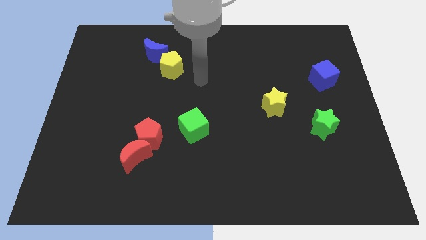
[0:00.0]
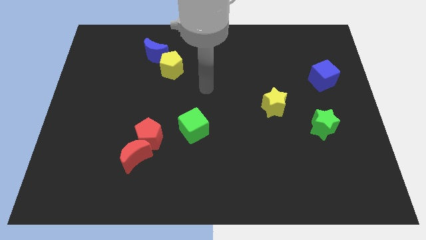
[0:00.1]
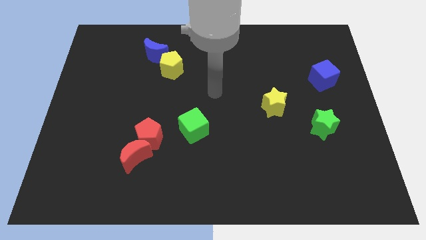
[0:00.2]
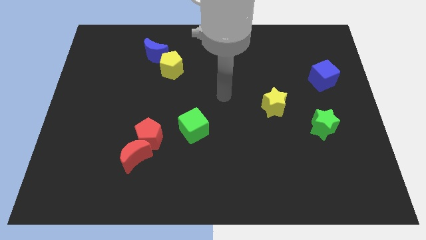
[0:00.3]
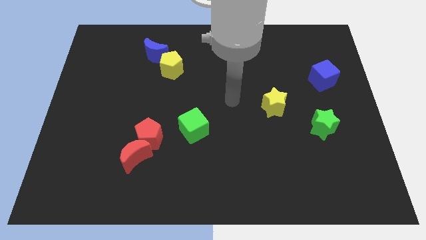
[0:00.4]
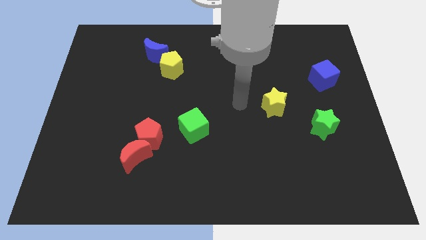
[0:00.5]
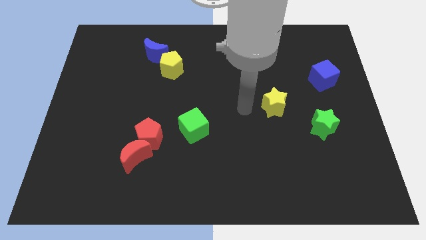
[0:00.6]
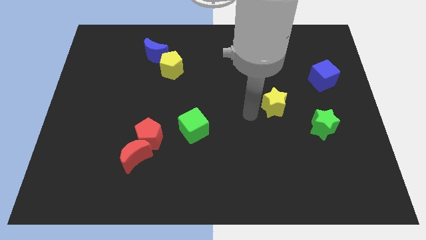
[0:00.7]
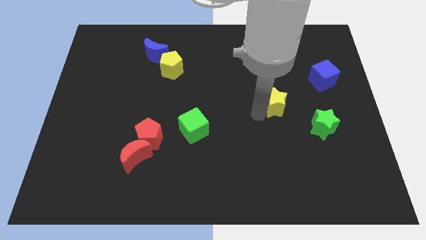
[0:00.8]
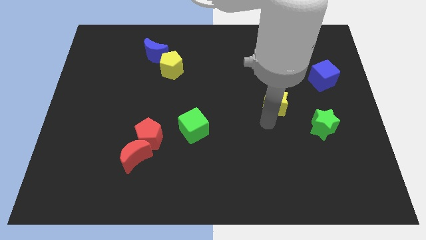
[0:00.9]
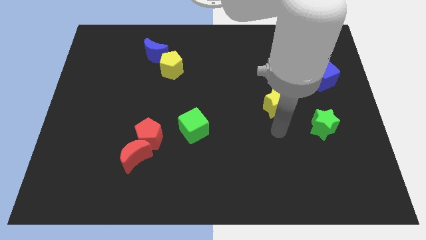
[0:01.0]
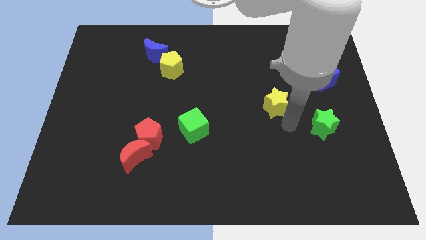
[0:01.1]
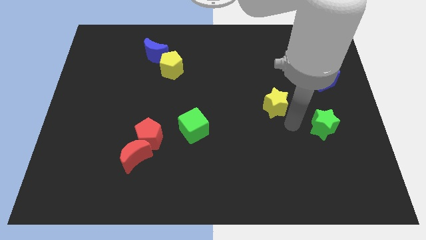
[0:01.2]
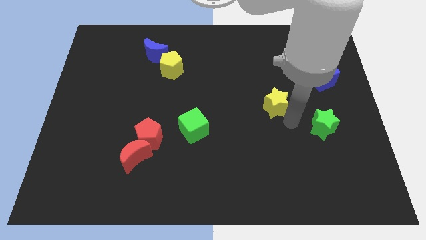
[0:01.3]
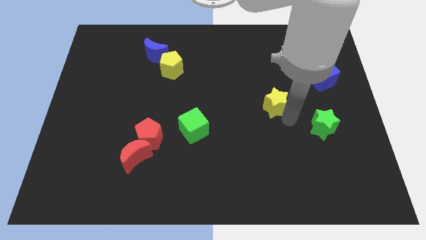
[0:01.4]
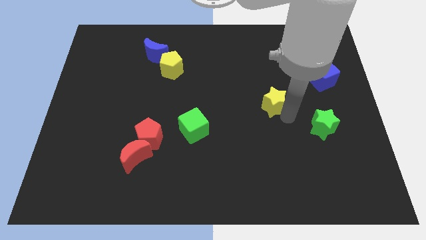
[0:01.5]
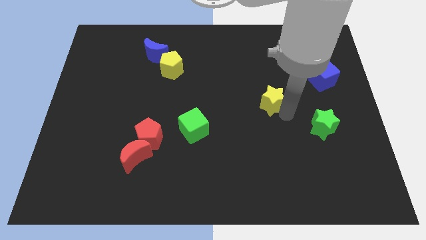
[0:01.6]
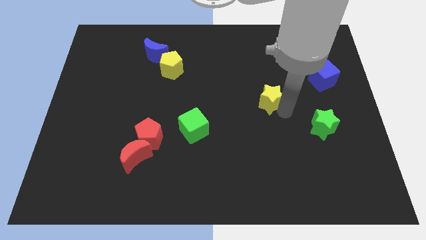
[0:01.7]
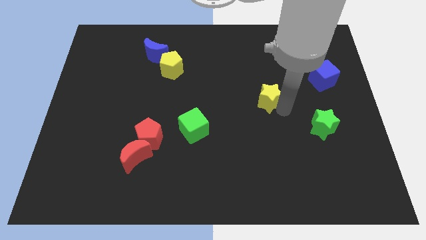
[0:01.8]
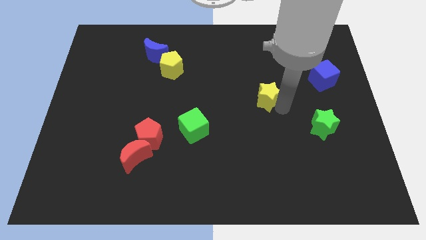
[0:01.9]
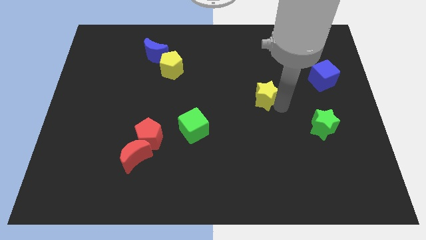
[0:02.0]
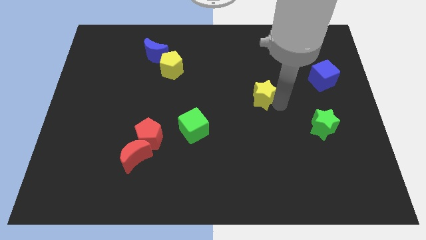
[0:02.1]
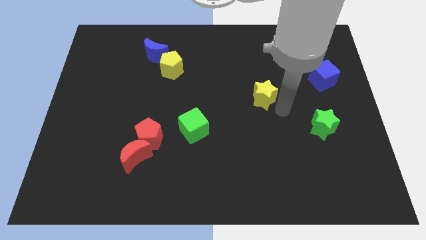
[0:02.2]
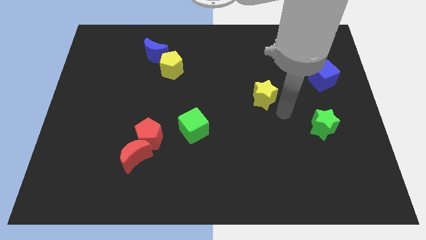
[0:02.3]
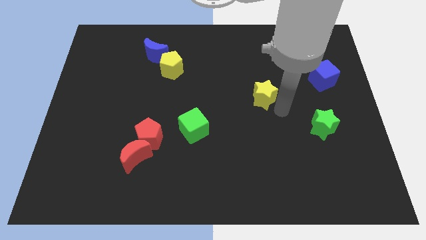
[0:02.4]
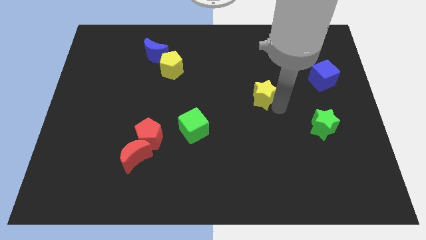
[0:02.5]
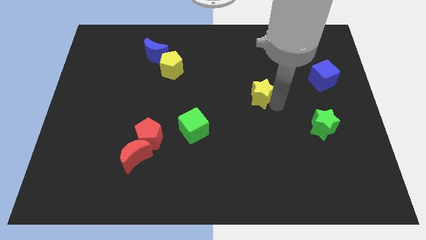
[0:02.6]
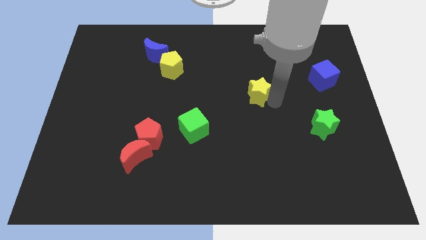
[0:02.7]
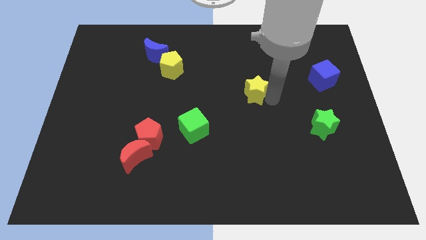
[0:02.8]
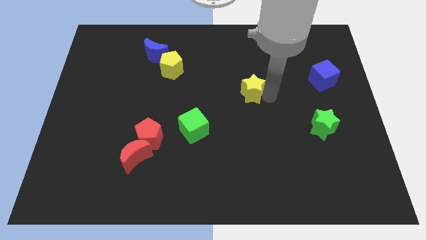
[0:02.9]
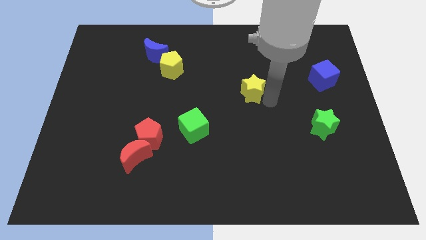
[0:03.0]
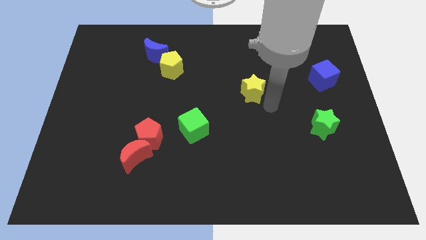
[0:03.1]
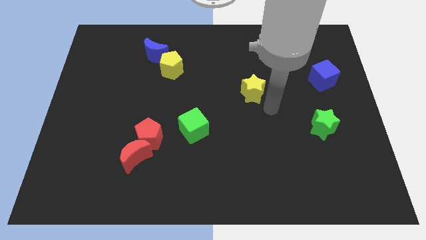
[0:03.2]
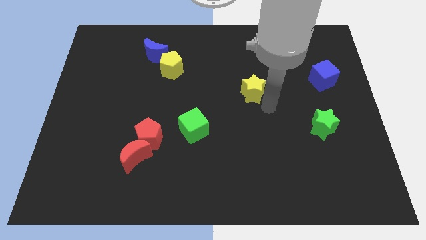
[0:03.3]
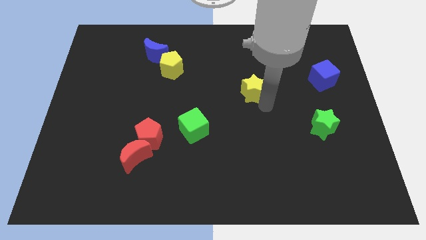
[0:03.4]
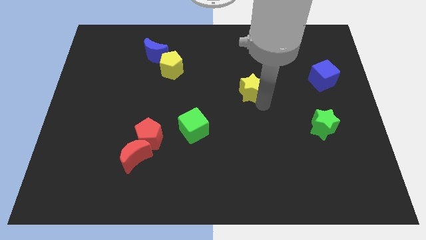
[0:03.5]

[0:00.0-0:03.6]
slide the yellow star upwards and left a little

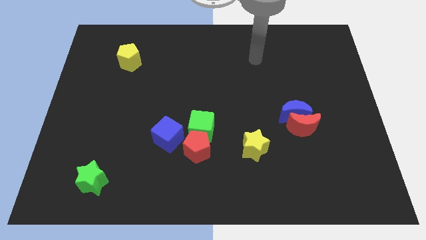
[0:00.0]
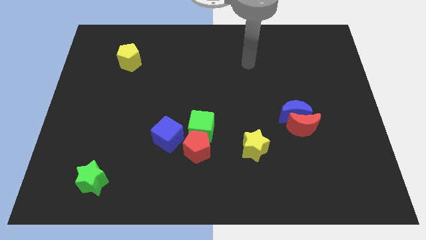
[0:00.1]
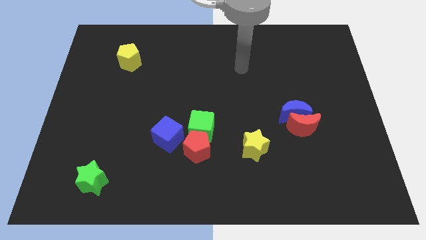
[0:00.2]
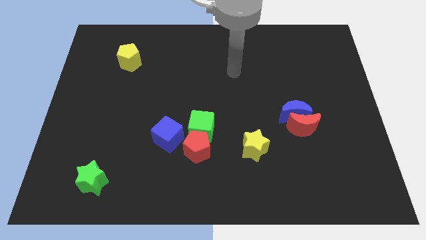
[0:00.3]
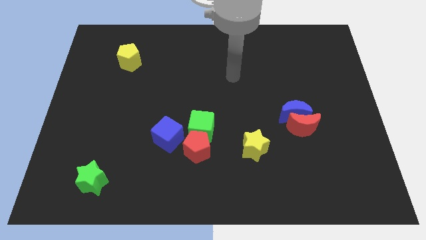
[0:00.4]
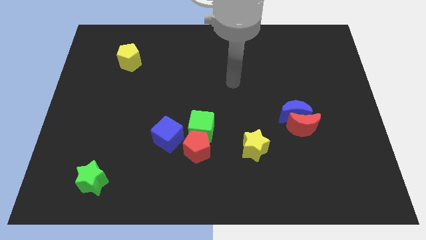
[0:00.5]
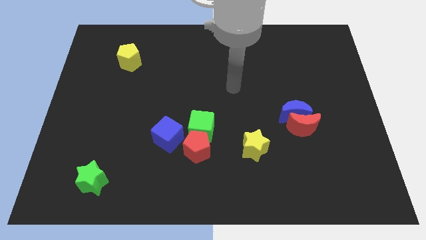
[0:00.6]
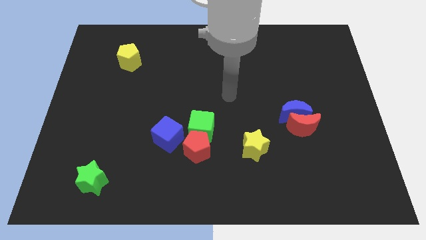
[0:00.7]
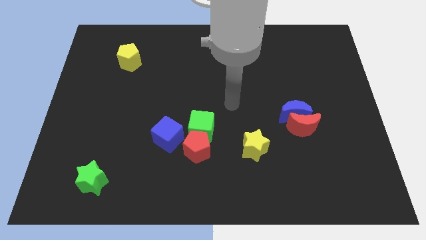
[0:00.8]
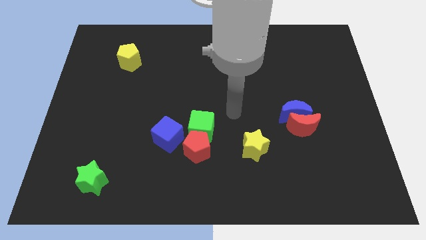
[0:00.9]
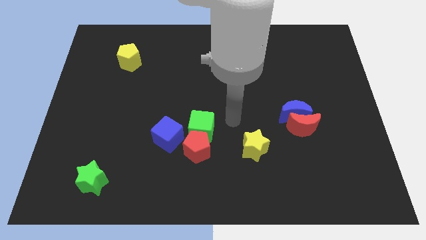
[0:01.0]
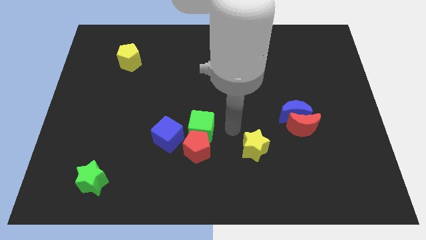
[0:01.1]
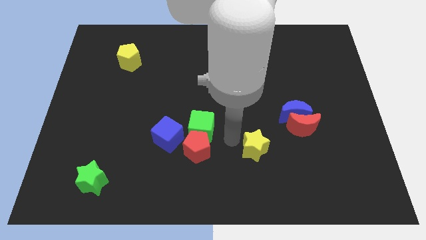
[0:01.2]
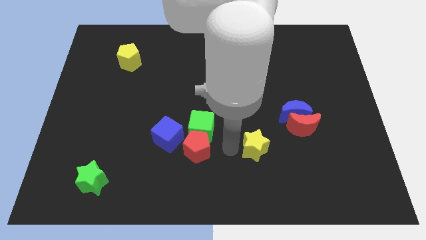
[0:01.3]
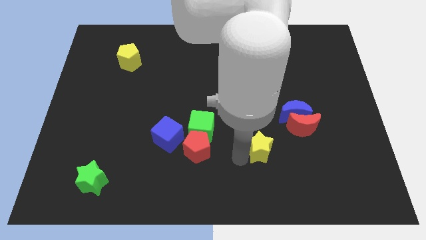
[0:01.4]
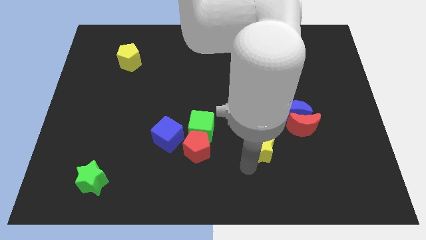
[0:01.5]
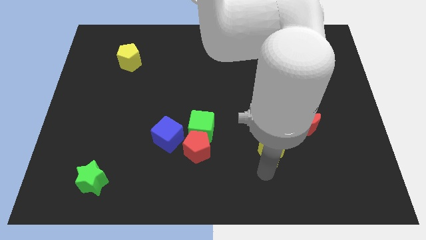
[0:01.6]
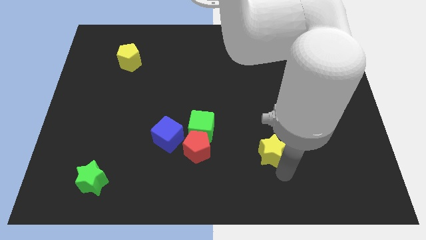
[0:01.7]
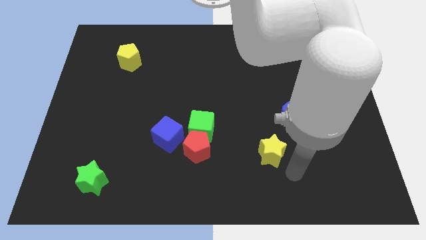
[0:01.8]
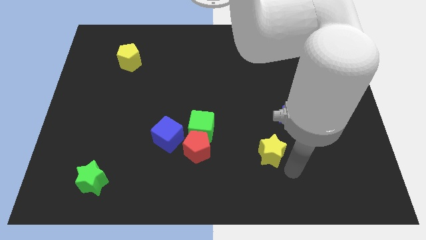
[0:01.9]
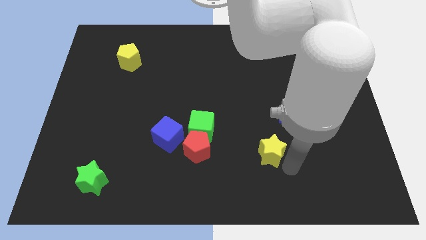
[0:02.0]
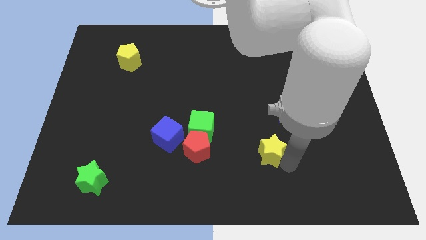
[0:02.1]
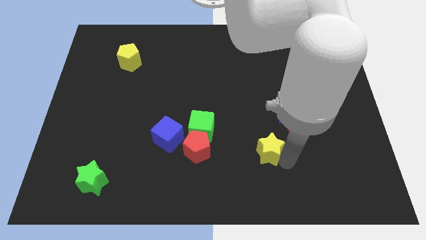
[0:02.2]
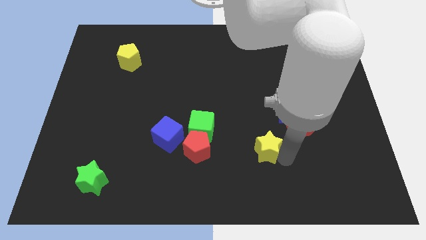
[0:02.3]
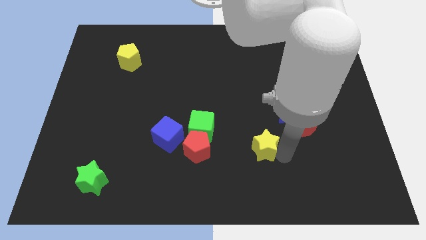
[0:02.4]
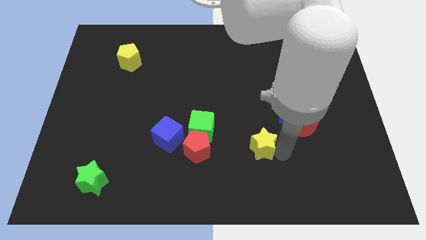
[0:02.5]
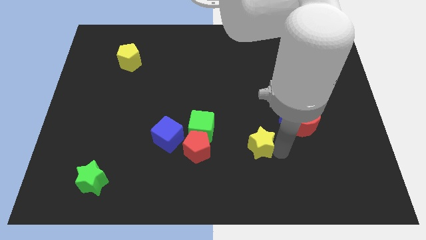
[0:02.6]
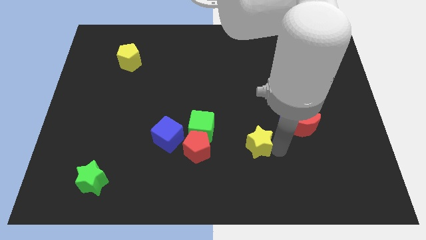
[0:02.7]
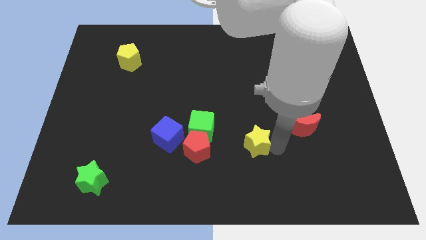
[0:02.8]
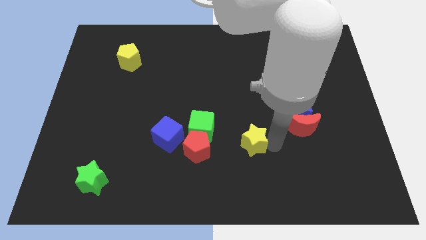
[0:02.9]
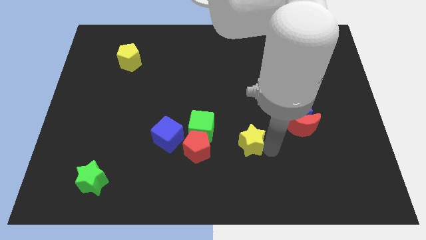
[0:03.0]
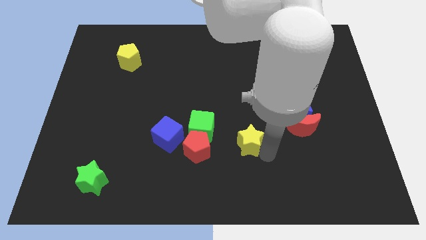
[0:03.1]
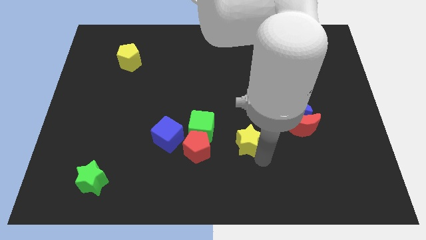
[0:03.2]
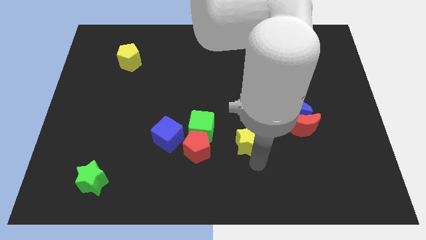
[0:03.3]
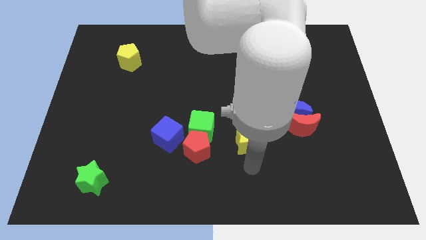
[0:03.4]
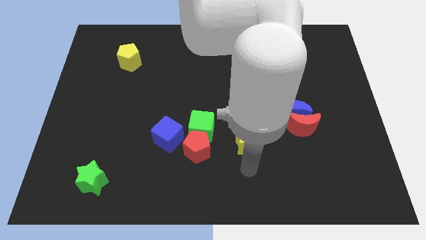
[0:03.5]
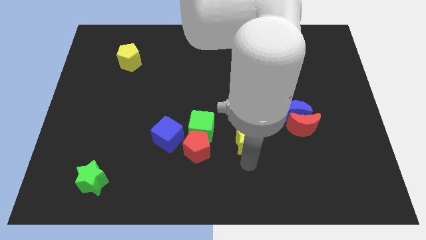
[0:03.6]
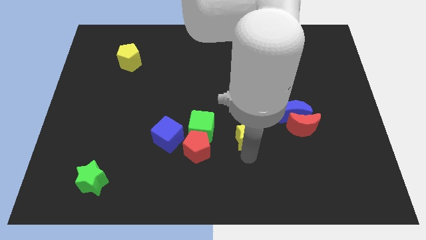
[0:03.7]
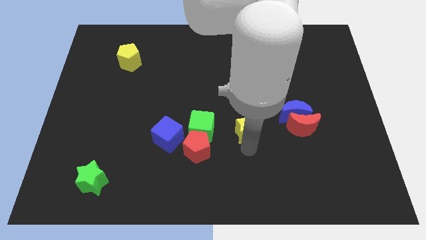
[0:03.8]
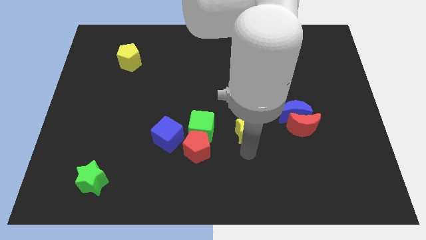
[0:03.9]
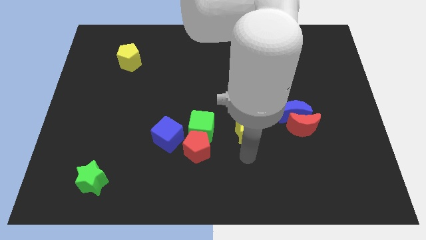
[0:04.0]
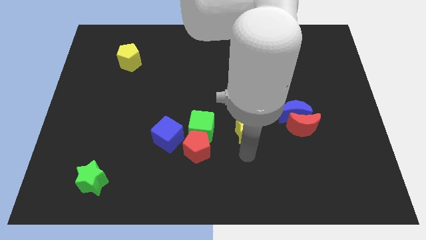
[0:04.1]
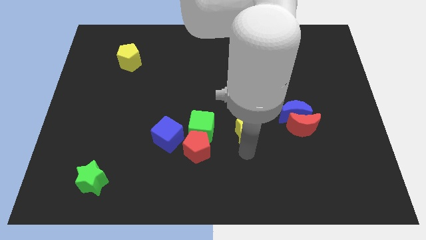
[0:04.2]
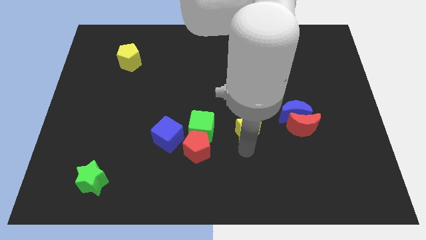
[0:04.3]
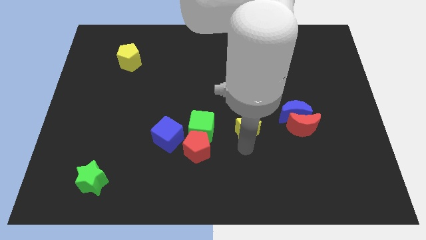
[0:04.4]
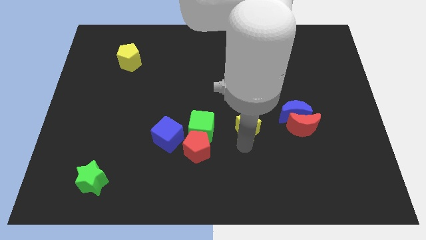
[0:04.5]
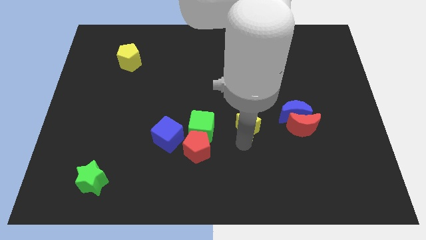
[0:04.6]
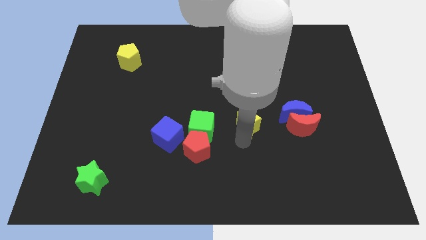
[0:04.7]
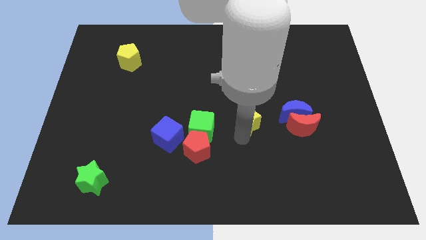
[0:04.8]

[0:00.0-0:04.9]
slightly move the yellow star up
